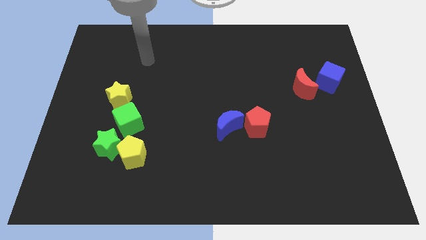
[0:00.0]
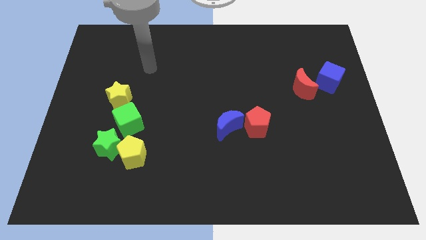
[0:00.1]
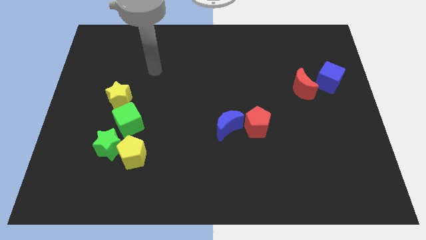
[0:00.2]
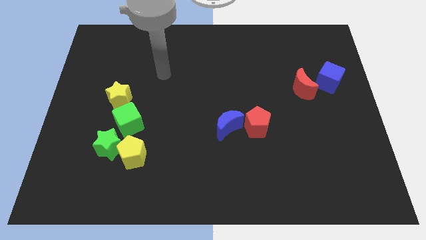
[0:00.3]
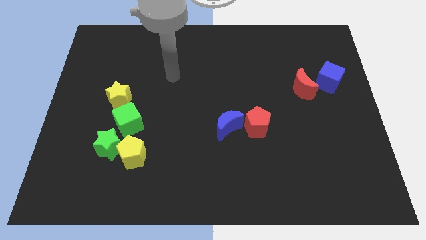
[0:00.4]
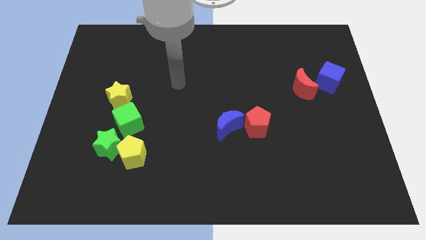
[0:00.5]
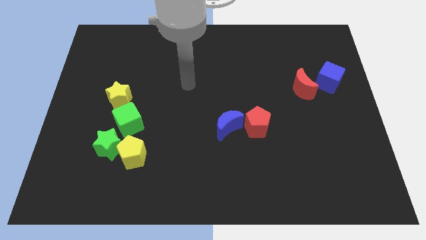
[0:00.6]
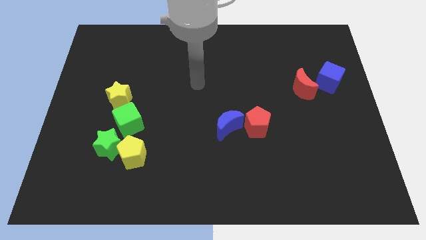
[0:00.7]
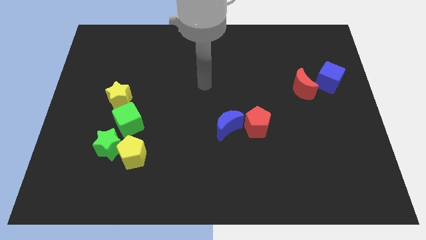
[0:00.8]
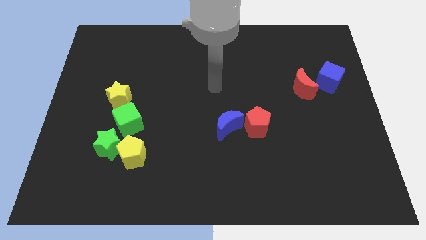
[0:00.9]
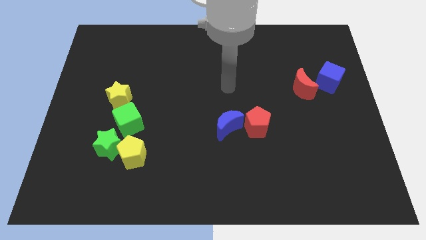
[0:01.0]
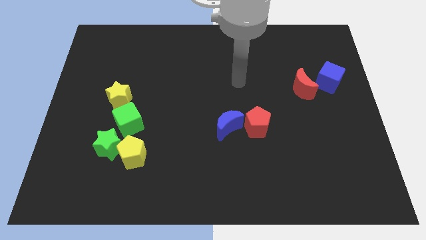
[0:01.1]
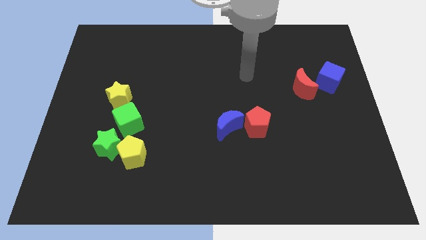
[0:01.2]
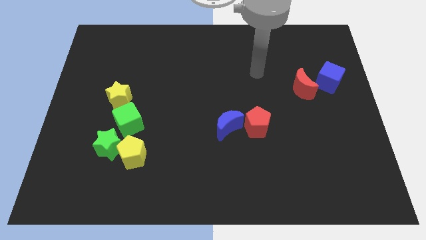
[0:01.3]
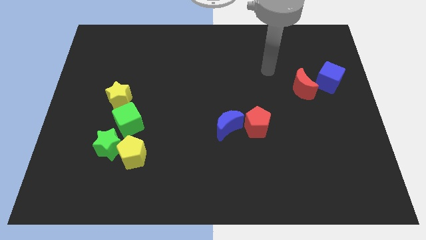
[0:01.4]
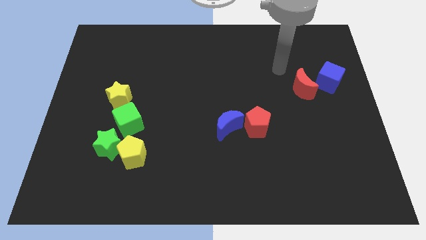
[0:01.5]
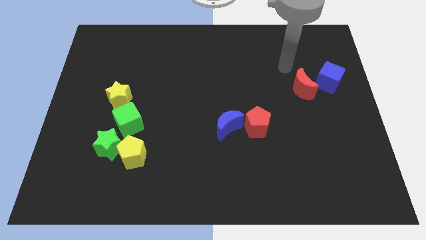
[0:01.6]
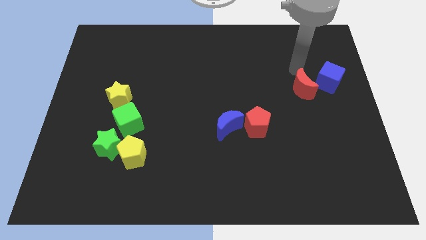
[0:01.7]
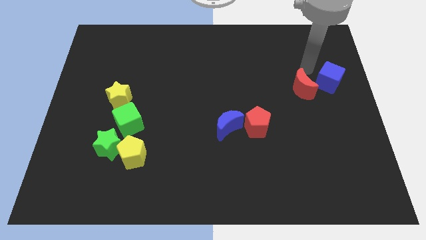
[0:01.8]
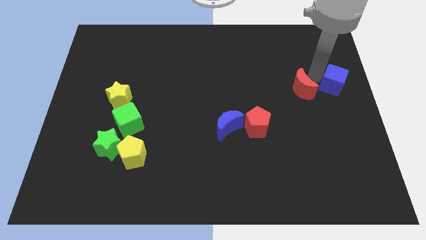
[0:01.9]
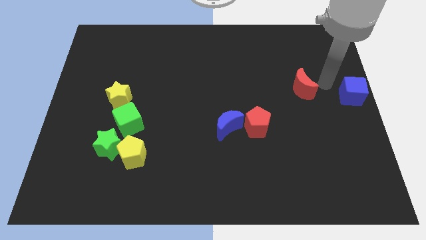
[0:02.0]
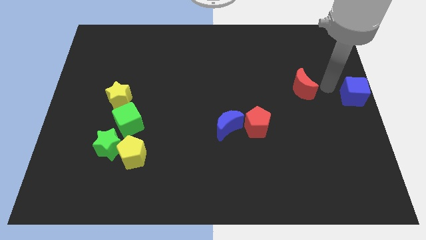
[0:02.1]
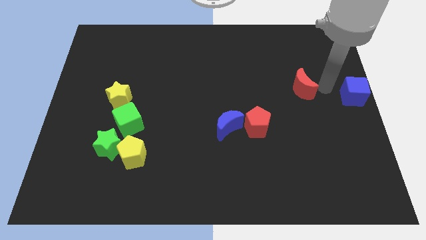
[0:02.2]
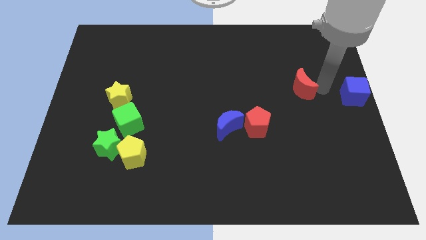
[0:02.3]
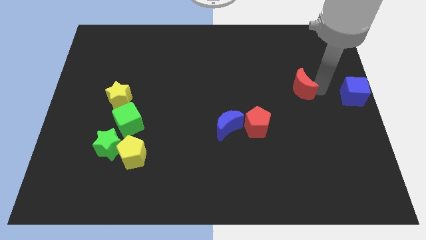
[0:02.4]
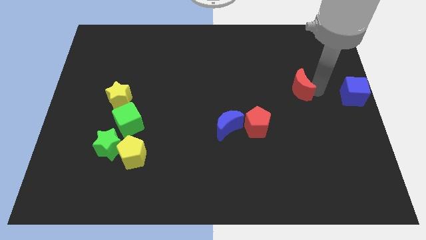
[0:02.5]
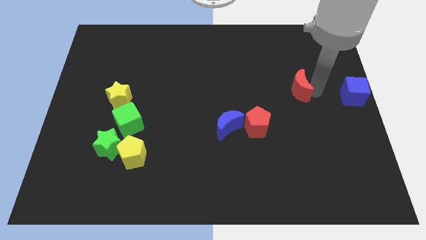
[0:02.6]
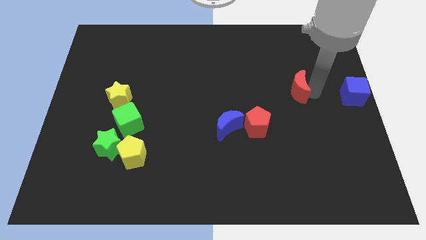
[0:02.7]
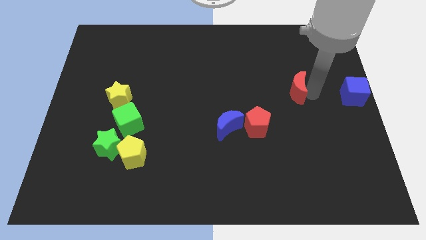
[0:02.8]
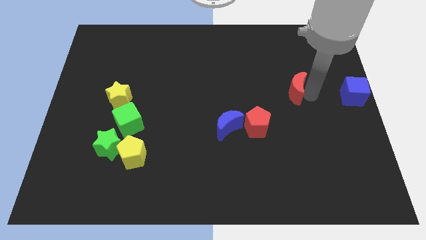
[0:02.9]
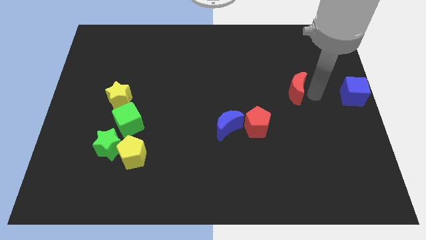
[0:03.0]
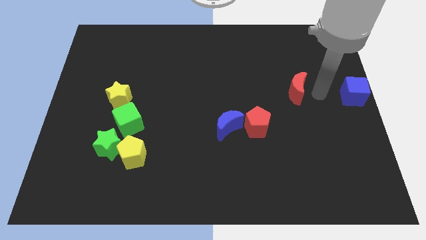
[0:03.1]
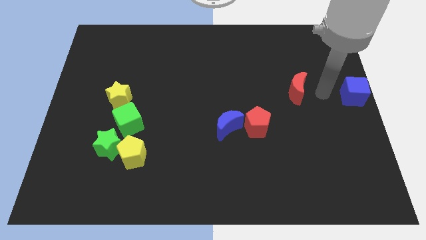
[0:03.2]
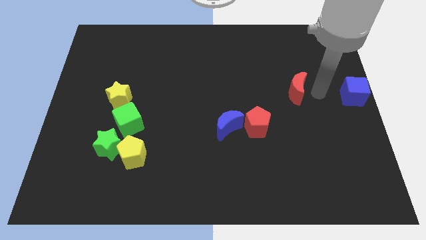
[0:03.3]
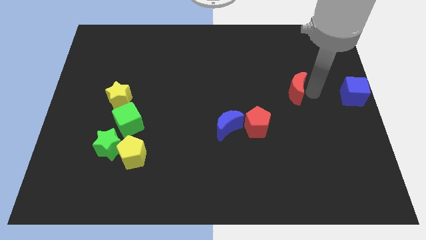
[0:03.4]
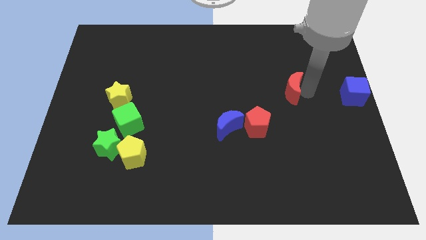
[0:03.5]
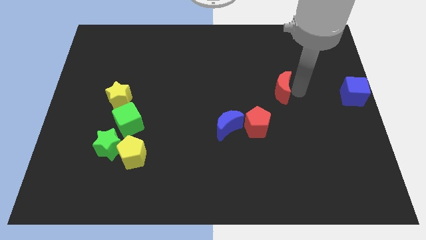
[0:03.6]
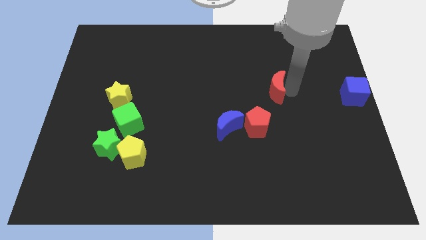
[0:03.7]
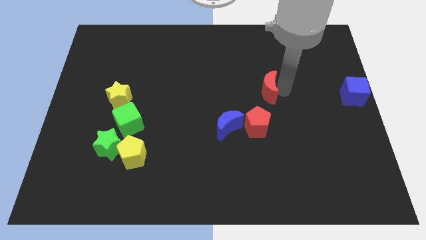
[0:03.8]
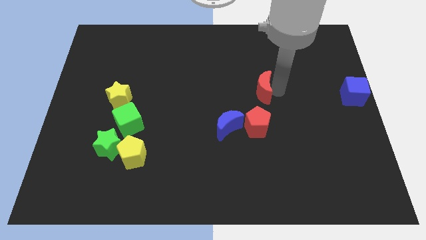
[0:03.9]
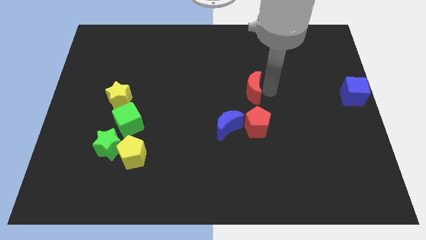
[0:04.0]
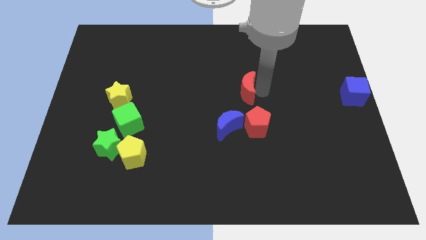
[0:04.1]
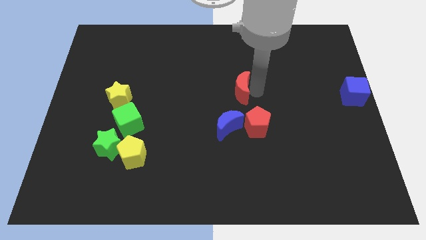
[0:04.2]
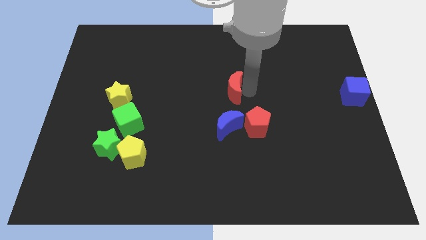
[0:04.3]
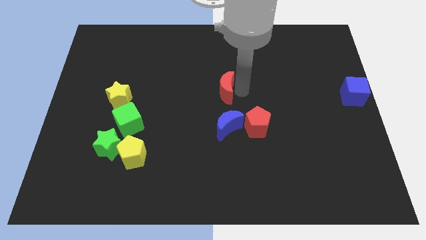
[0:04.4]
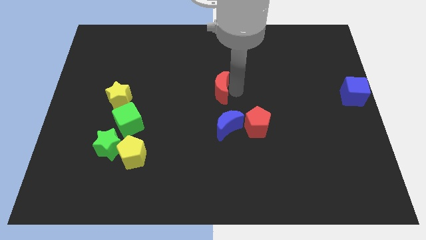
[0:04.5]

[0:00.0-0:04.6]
move the red moon to the left

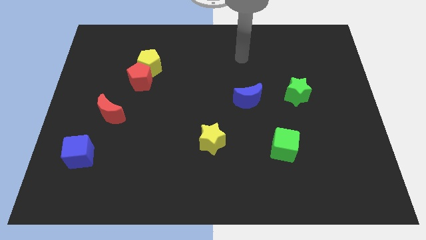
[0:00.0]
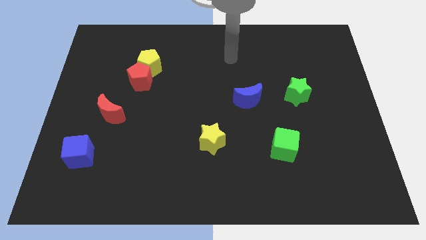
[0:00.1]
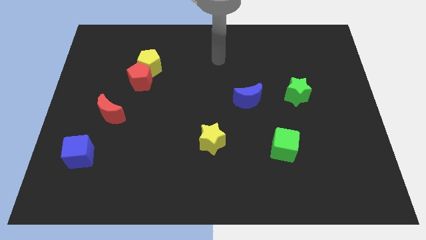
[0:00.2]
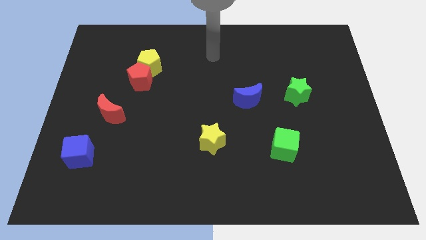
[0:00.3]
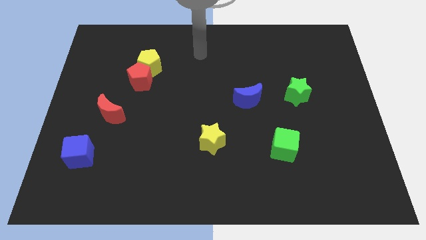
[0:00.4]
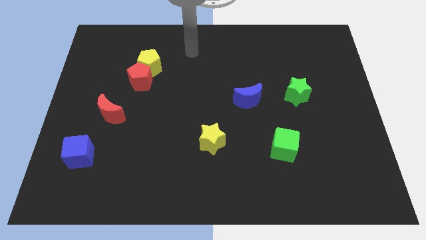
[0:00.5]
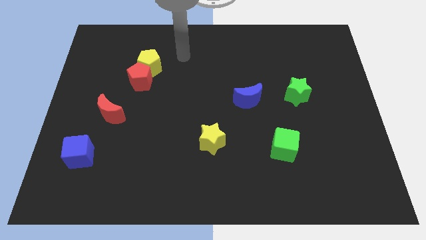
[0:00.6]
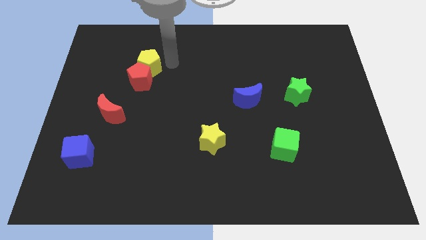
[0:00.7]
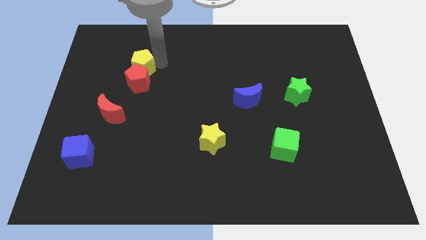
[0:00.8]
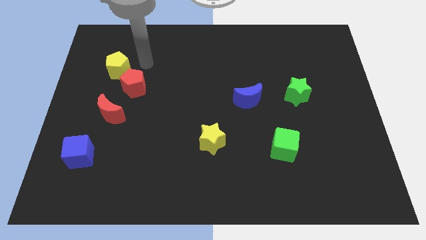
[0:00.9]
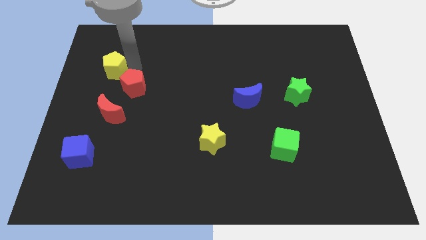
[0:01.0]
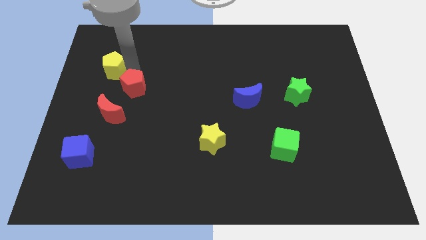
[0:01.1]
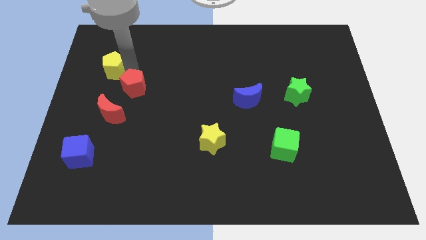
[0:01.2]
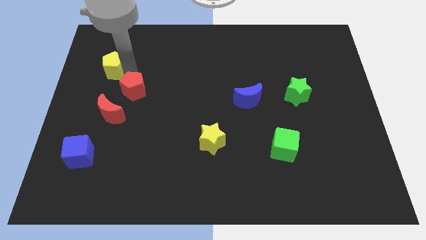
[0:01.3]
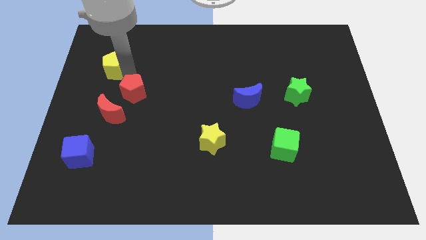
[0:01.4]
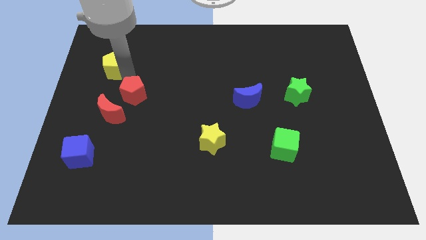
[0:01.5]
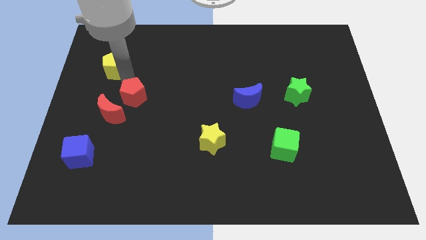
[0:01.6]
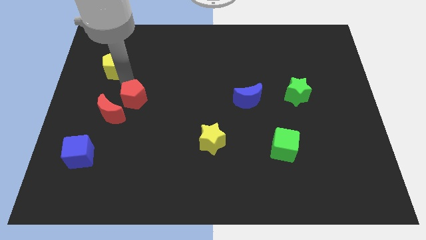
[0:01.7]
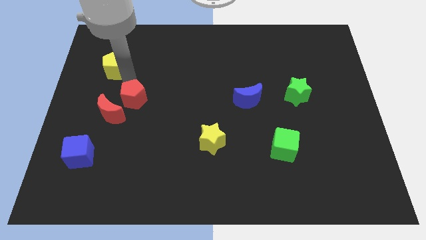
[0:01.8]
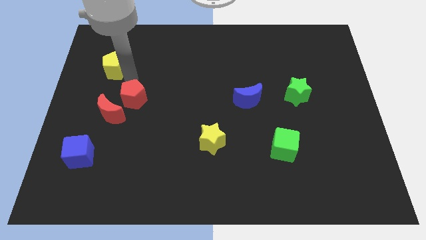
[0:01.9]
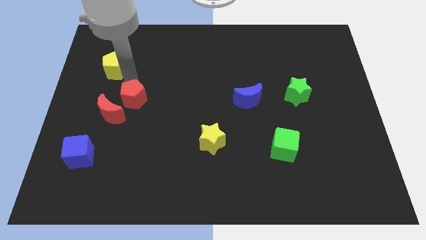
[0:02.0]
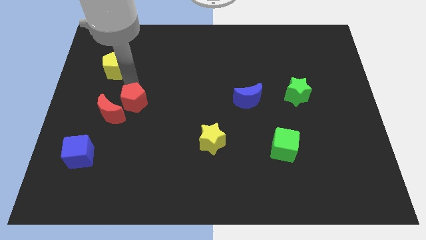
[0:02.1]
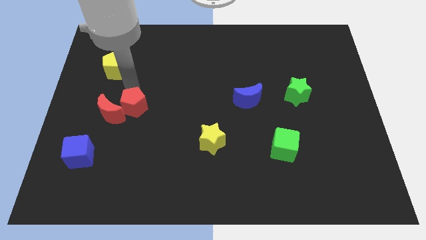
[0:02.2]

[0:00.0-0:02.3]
slightly slide the red pentagon down

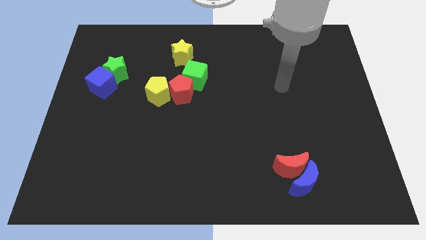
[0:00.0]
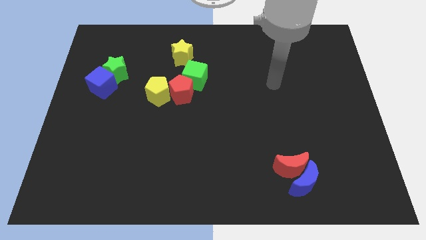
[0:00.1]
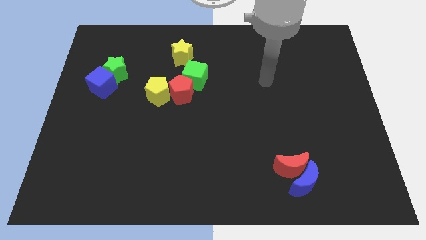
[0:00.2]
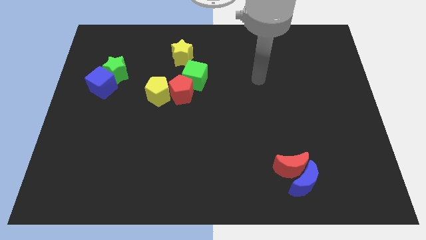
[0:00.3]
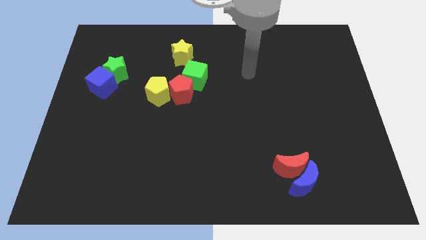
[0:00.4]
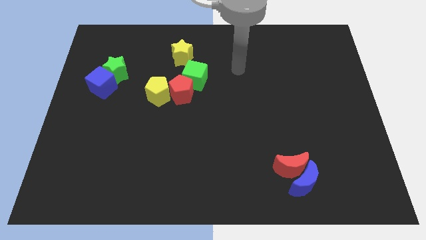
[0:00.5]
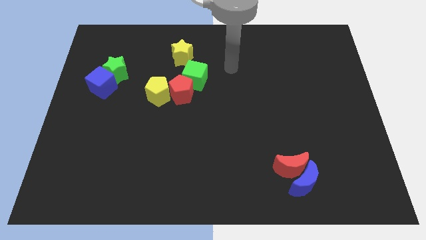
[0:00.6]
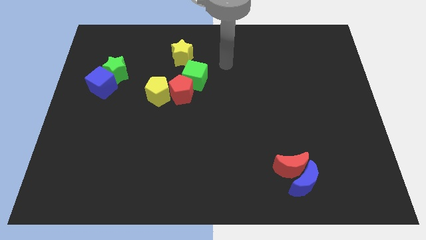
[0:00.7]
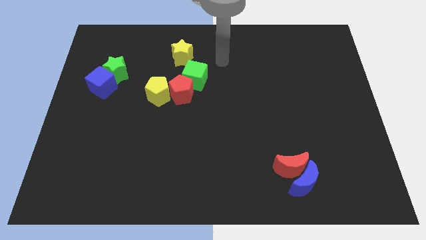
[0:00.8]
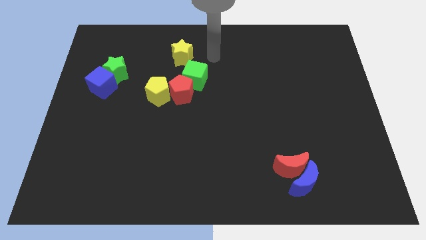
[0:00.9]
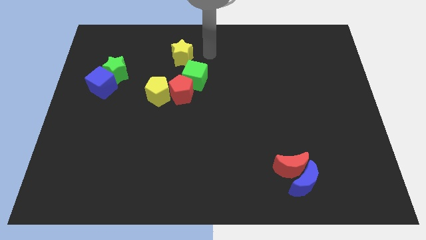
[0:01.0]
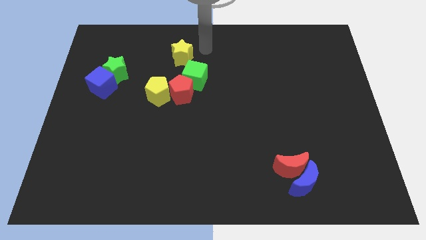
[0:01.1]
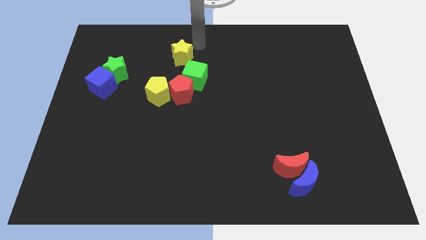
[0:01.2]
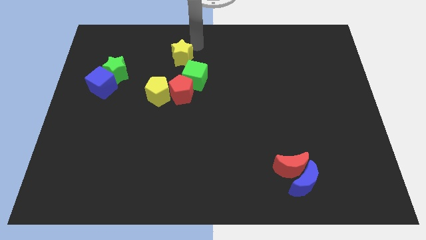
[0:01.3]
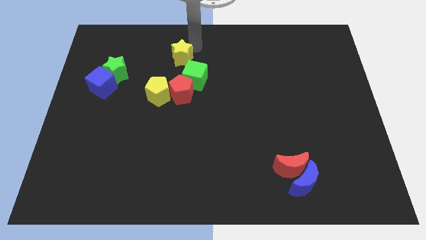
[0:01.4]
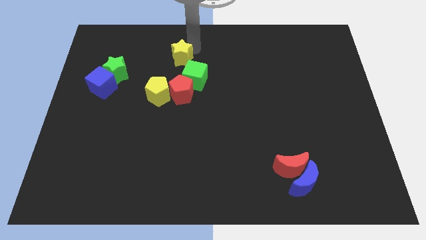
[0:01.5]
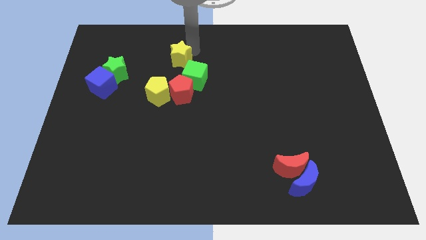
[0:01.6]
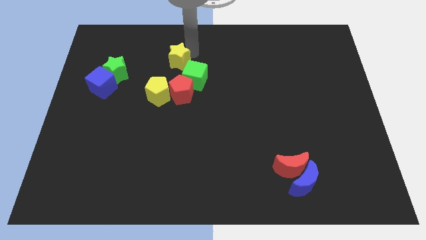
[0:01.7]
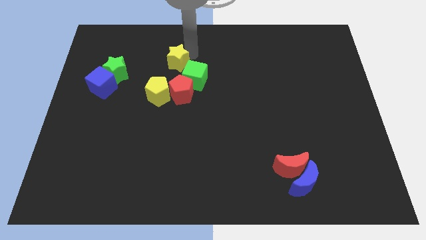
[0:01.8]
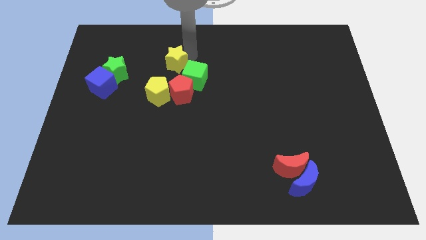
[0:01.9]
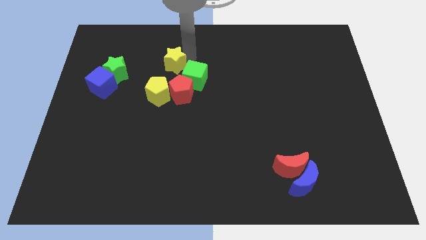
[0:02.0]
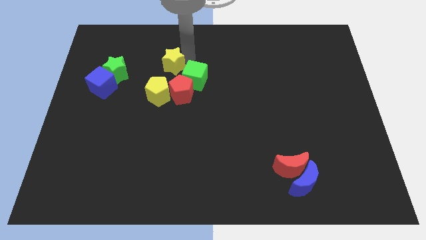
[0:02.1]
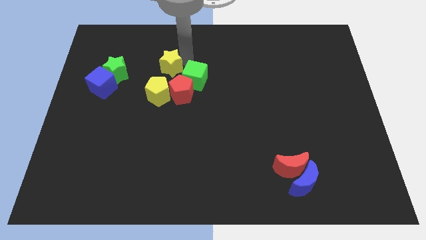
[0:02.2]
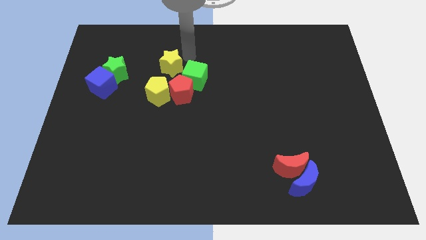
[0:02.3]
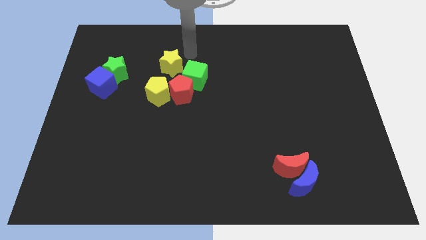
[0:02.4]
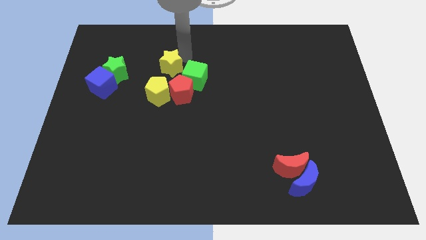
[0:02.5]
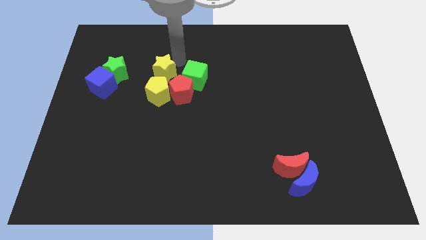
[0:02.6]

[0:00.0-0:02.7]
move the yellow star a bit down and to the left
